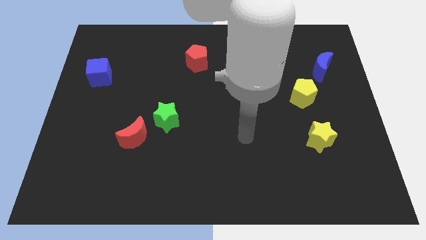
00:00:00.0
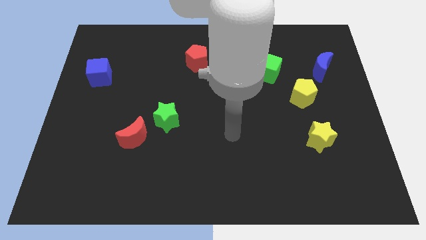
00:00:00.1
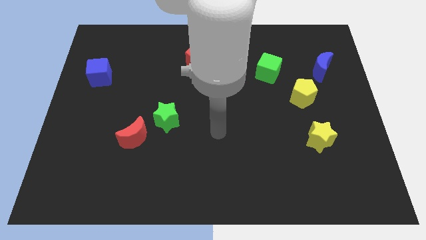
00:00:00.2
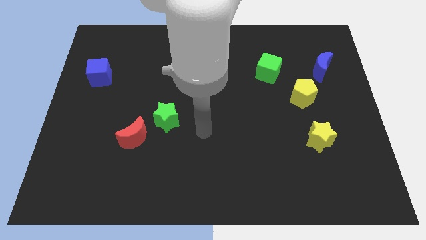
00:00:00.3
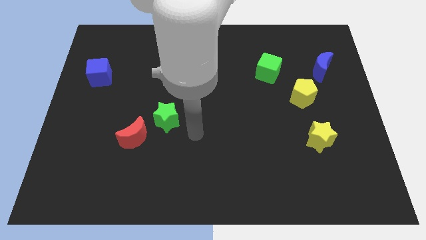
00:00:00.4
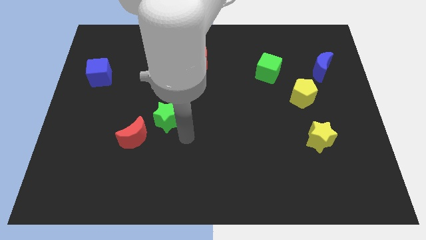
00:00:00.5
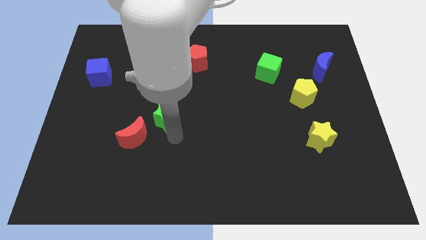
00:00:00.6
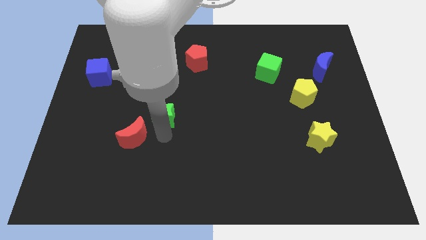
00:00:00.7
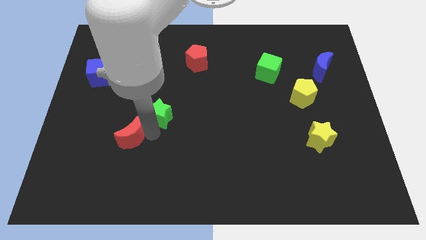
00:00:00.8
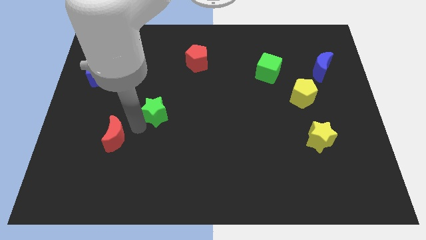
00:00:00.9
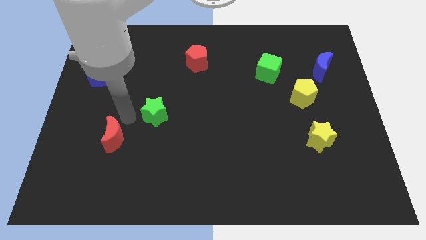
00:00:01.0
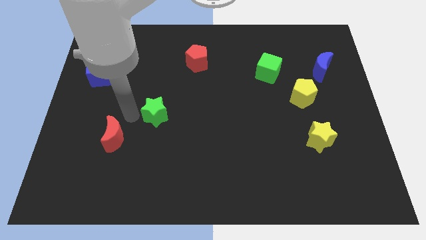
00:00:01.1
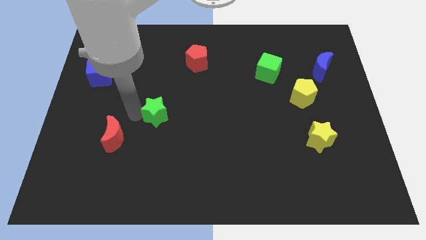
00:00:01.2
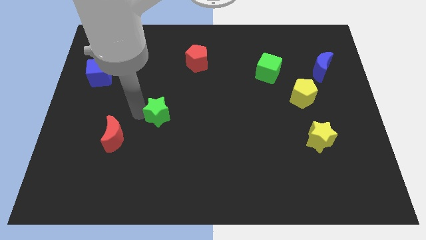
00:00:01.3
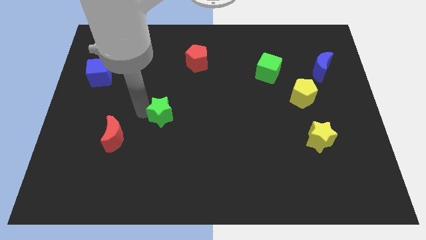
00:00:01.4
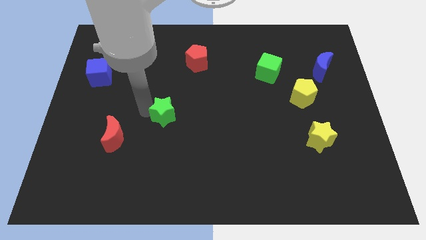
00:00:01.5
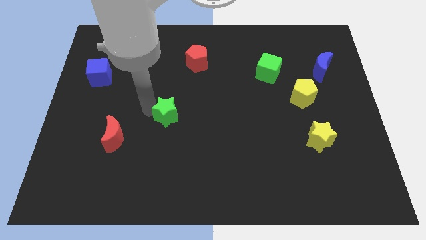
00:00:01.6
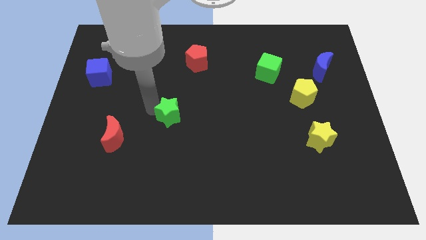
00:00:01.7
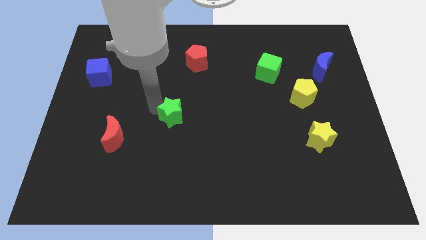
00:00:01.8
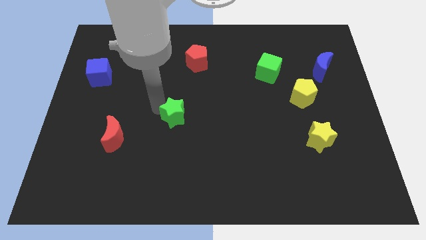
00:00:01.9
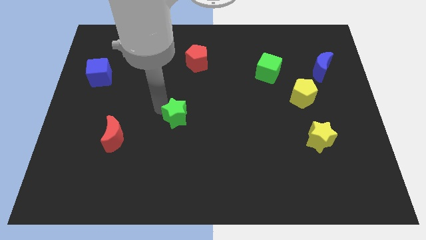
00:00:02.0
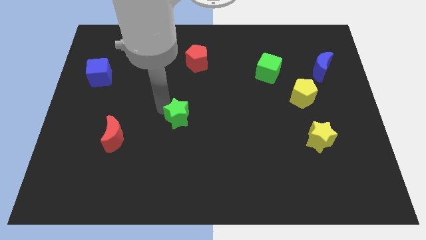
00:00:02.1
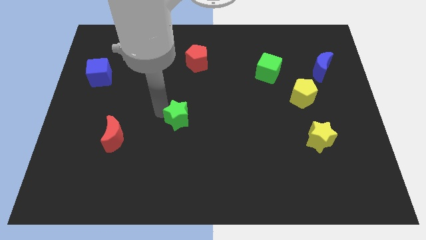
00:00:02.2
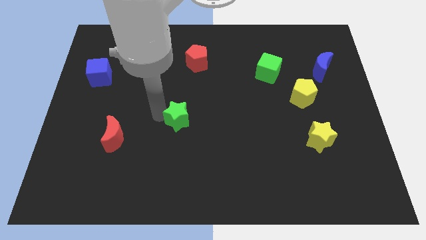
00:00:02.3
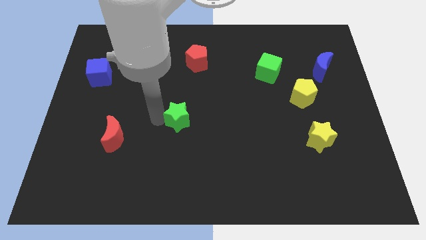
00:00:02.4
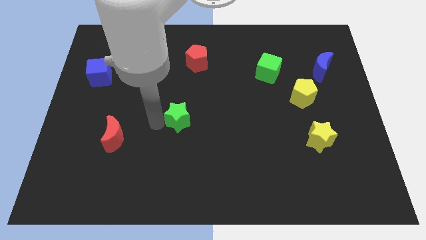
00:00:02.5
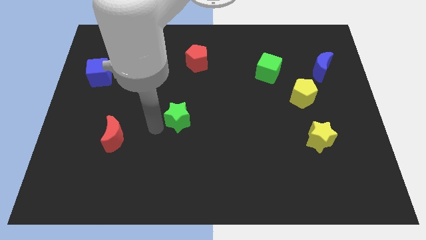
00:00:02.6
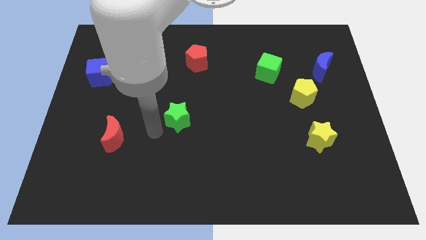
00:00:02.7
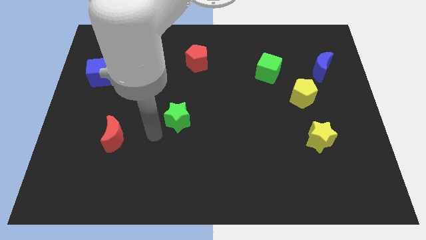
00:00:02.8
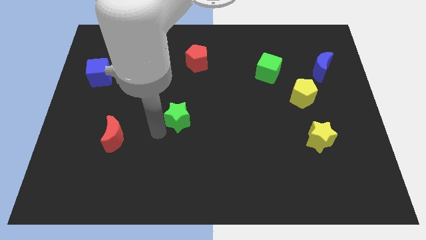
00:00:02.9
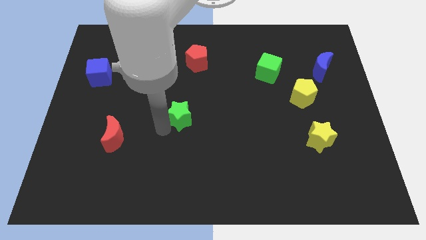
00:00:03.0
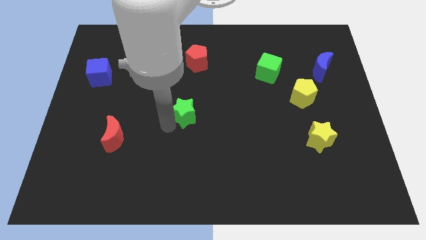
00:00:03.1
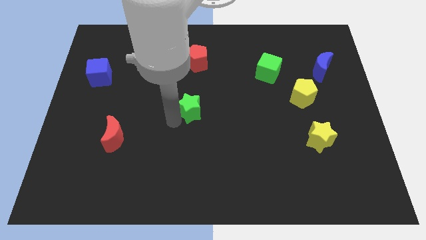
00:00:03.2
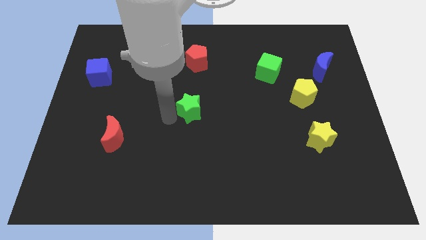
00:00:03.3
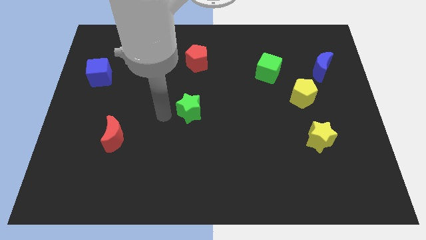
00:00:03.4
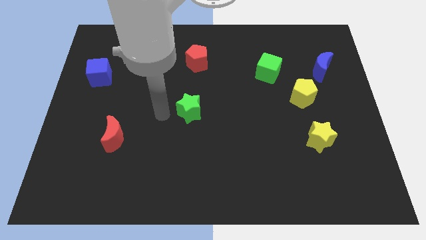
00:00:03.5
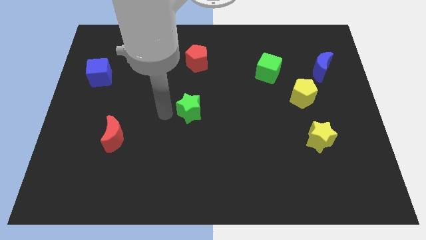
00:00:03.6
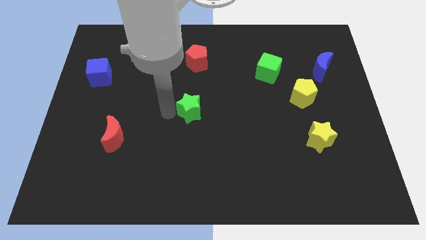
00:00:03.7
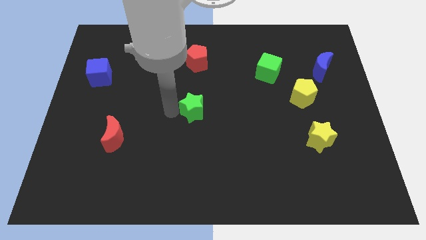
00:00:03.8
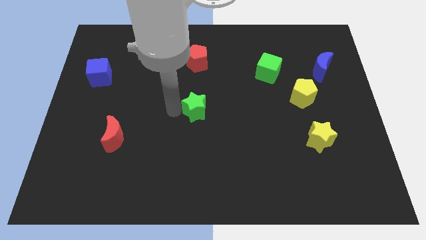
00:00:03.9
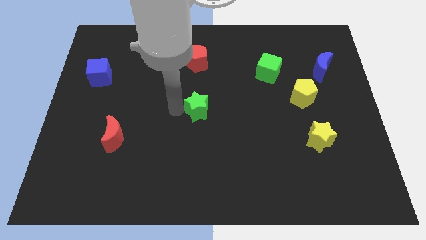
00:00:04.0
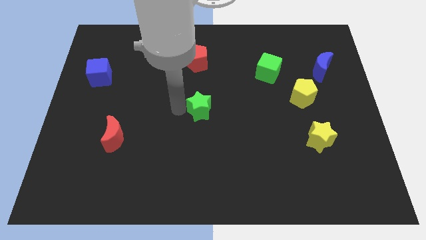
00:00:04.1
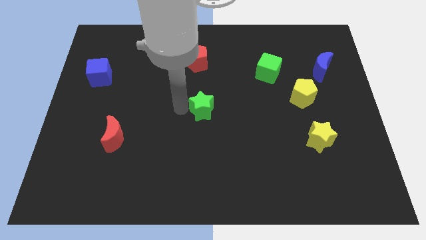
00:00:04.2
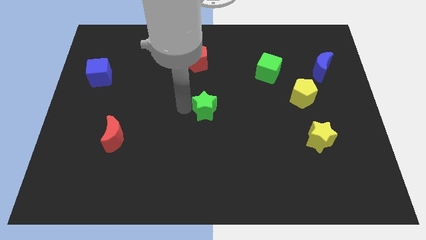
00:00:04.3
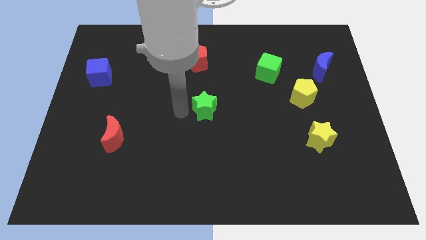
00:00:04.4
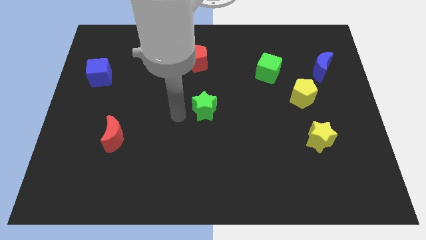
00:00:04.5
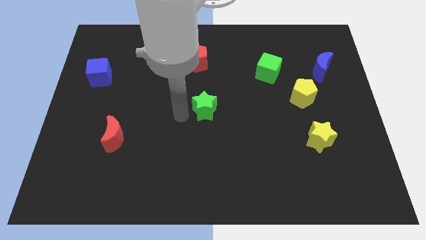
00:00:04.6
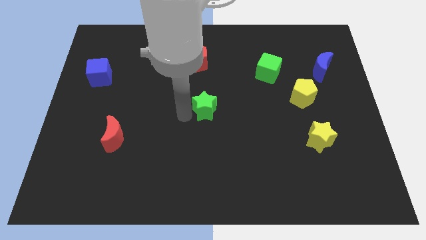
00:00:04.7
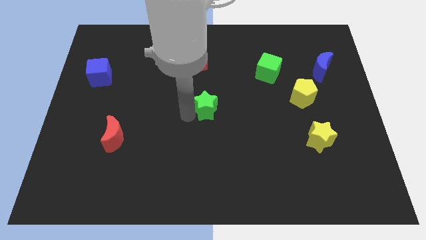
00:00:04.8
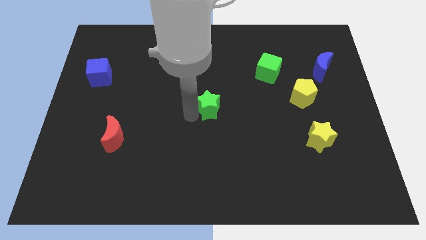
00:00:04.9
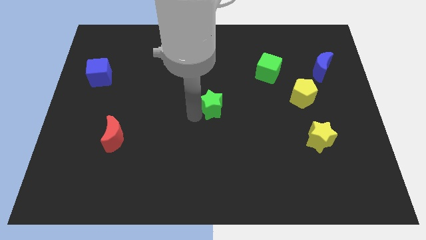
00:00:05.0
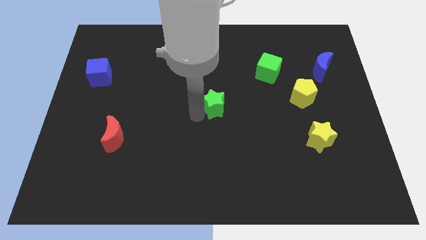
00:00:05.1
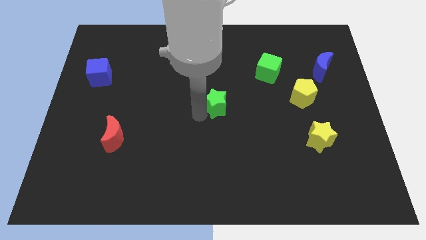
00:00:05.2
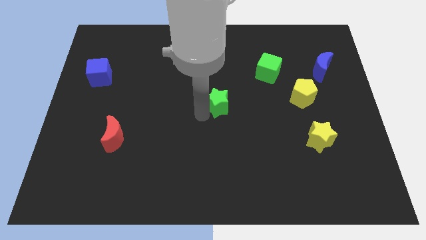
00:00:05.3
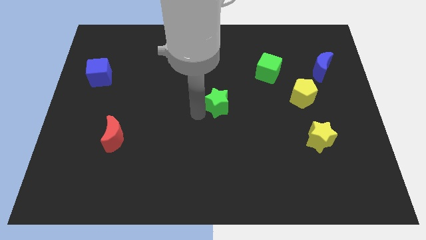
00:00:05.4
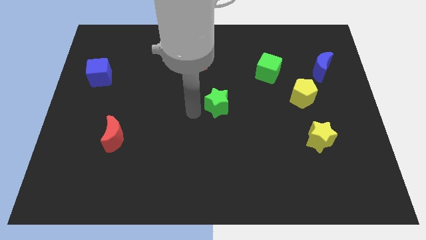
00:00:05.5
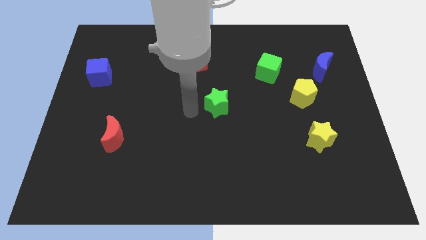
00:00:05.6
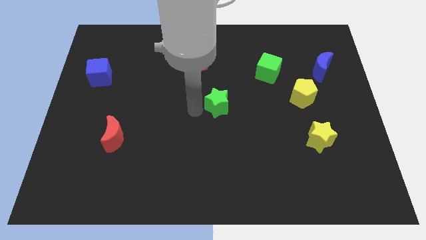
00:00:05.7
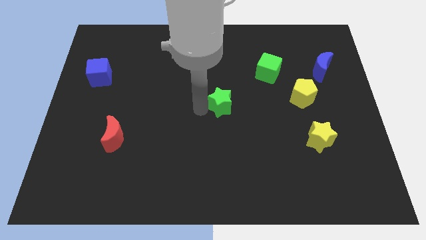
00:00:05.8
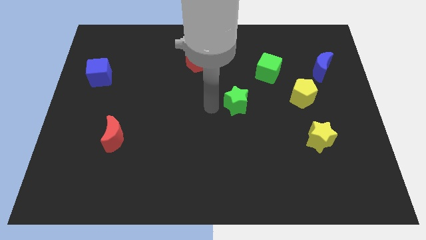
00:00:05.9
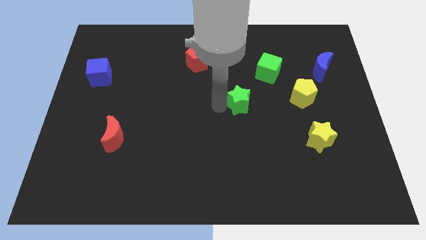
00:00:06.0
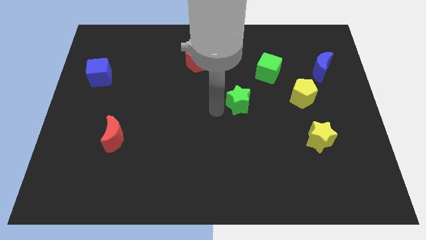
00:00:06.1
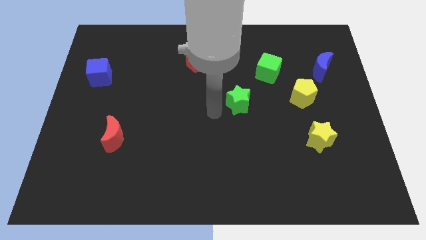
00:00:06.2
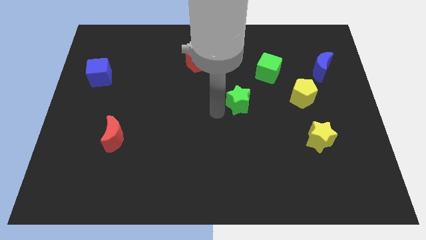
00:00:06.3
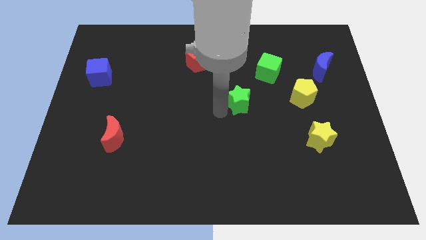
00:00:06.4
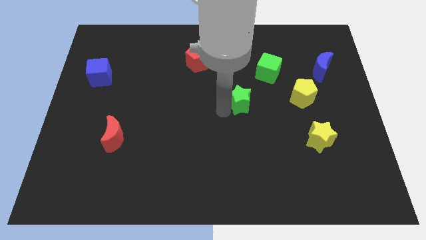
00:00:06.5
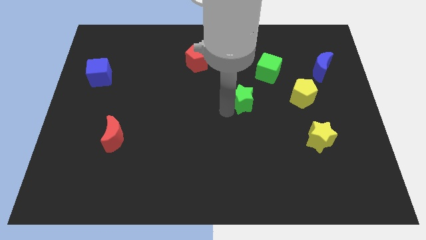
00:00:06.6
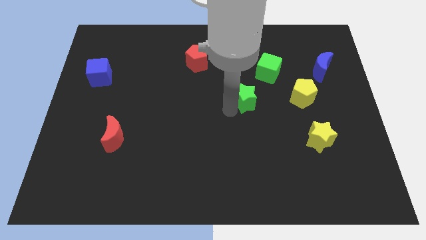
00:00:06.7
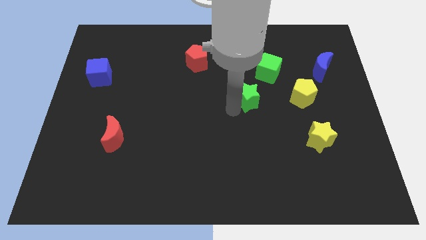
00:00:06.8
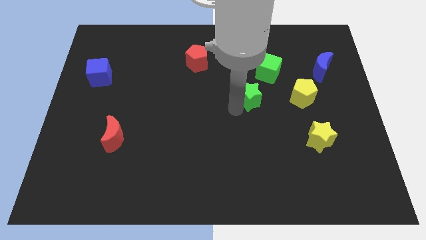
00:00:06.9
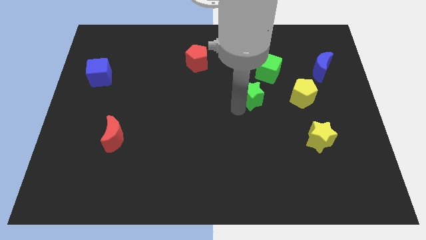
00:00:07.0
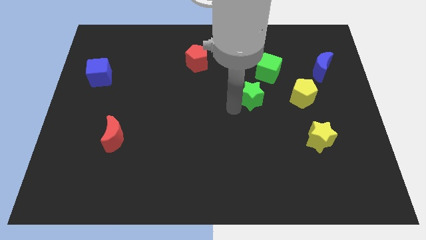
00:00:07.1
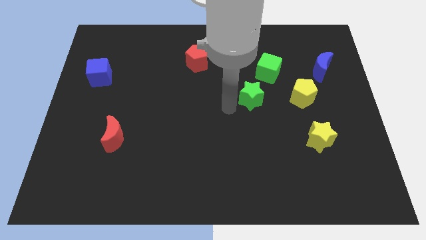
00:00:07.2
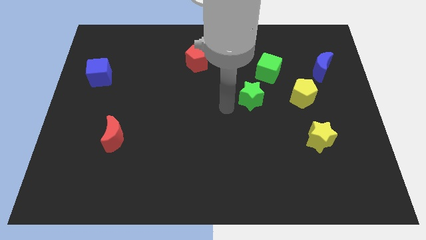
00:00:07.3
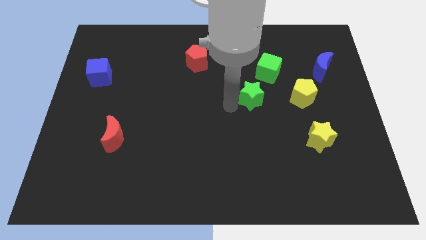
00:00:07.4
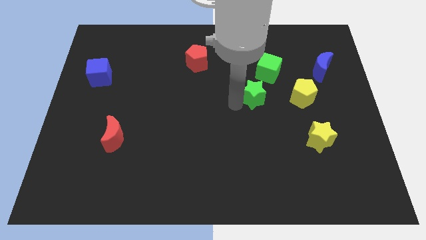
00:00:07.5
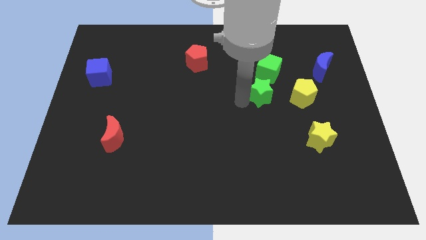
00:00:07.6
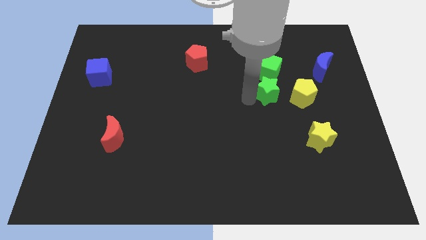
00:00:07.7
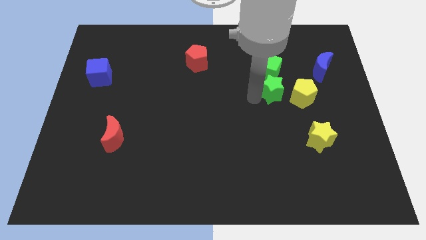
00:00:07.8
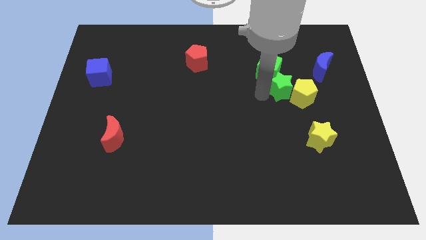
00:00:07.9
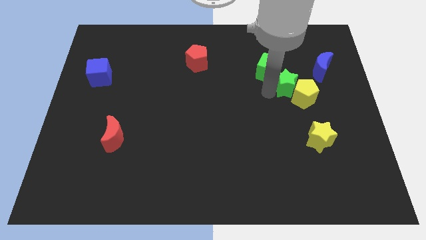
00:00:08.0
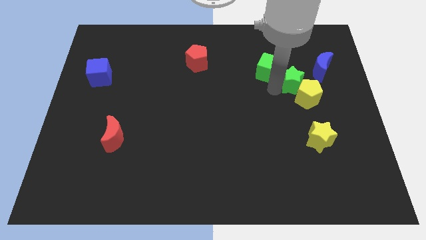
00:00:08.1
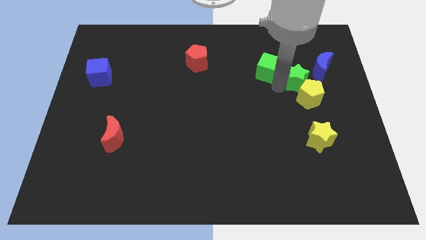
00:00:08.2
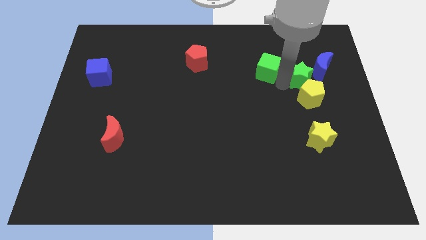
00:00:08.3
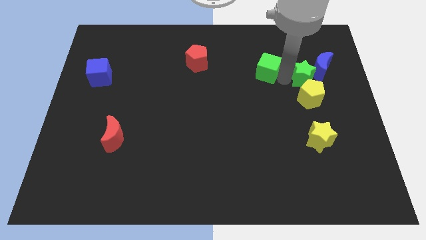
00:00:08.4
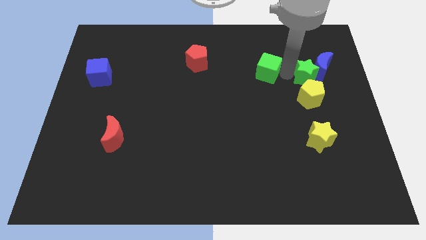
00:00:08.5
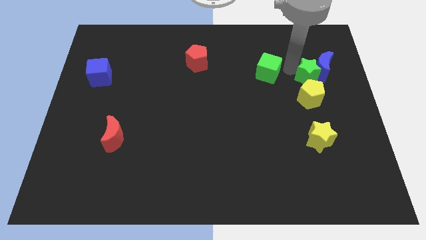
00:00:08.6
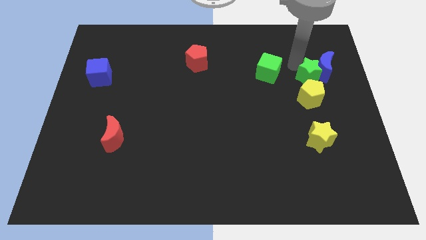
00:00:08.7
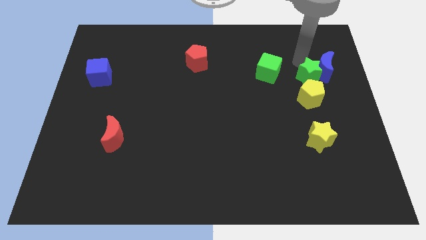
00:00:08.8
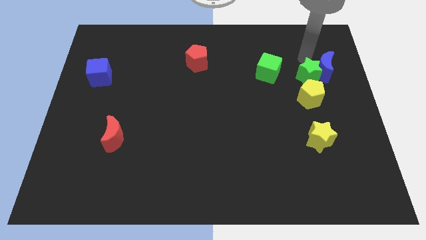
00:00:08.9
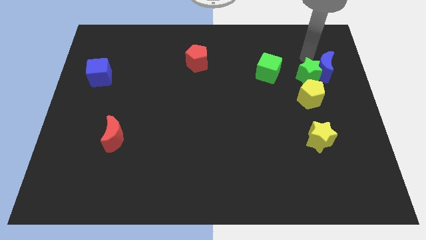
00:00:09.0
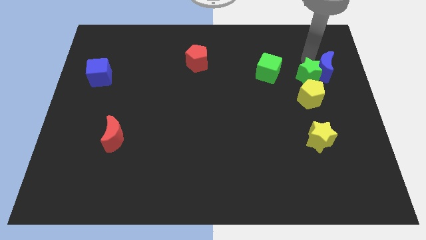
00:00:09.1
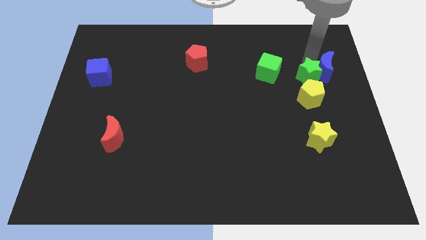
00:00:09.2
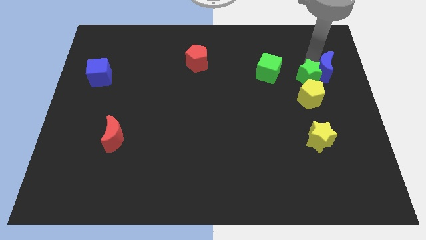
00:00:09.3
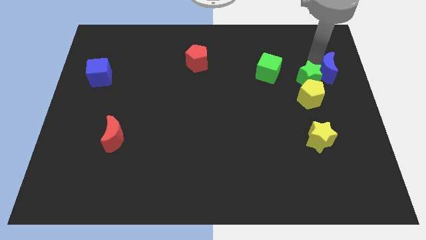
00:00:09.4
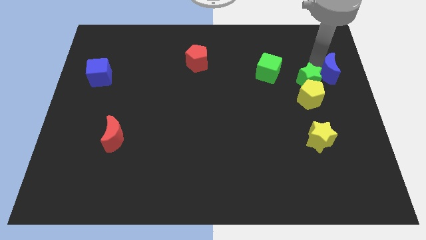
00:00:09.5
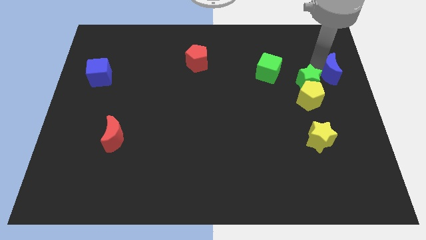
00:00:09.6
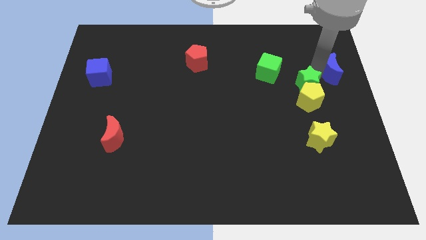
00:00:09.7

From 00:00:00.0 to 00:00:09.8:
put the green star to the top of the yellow star
